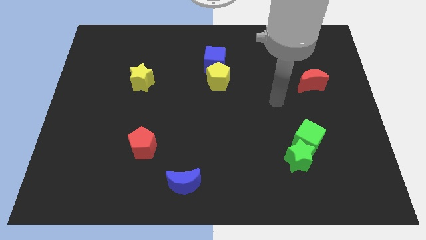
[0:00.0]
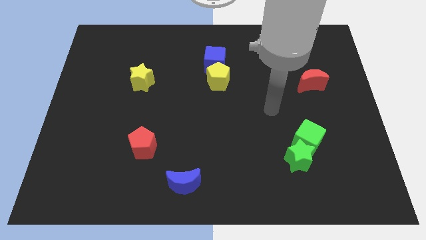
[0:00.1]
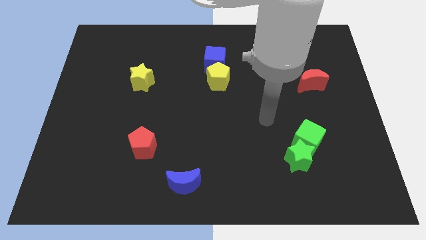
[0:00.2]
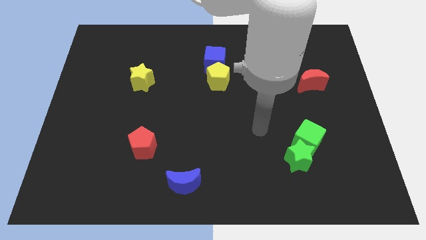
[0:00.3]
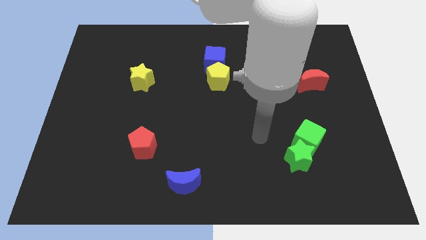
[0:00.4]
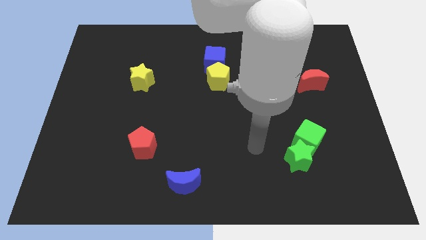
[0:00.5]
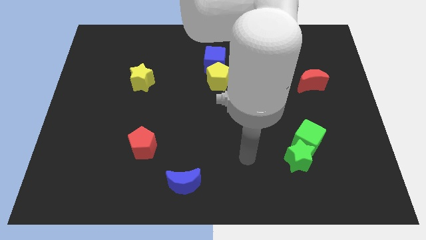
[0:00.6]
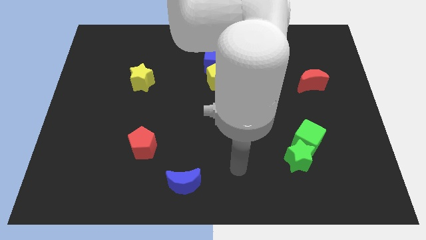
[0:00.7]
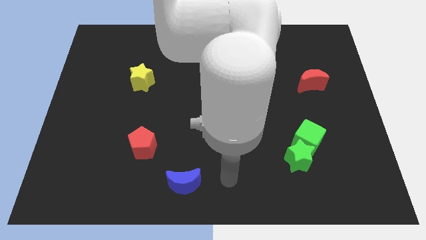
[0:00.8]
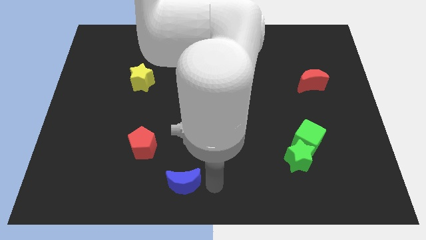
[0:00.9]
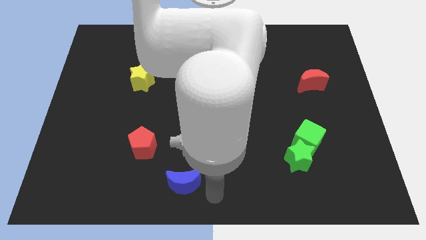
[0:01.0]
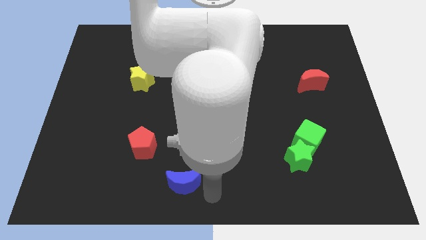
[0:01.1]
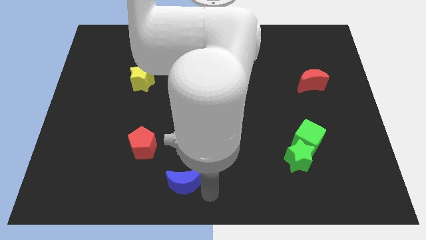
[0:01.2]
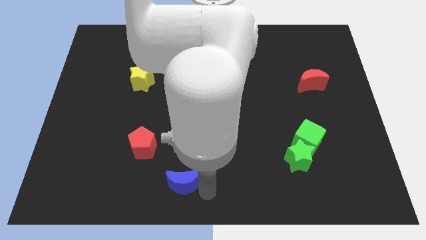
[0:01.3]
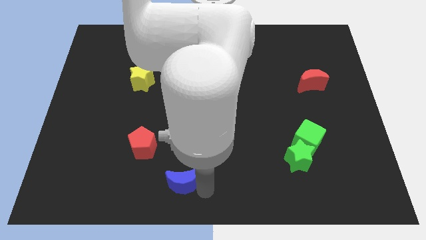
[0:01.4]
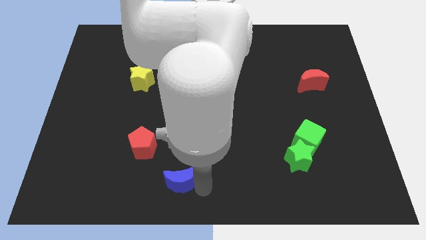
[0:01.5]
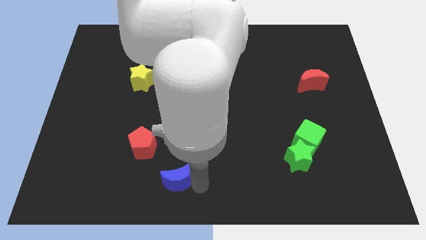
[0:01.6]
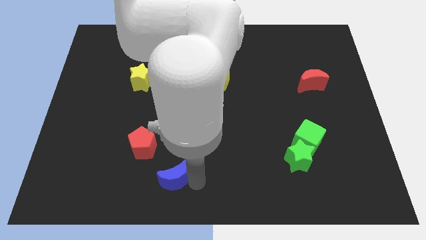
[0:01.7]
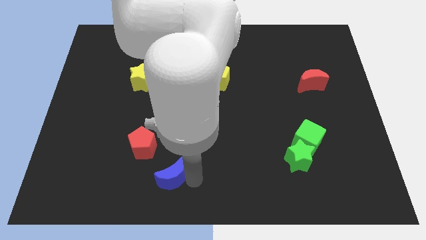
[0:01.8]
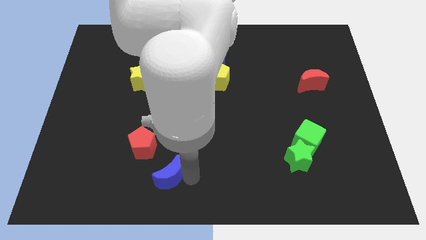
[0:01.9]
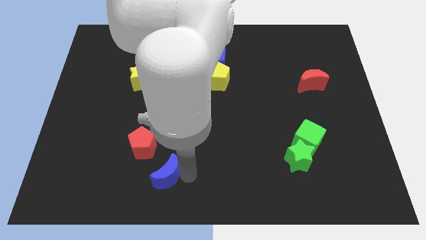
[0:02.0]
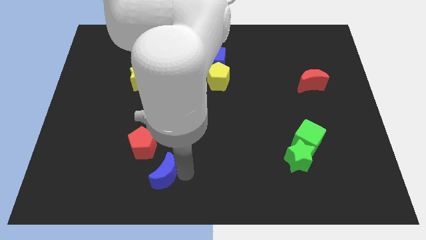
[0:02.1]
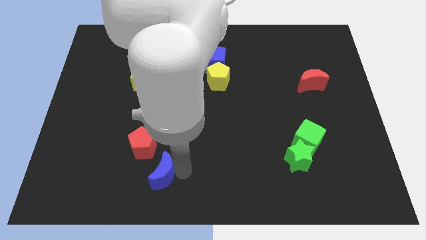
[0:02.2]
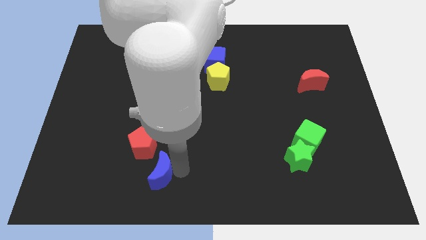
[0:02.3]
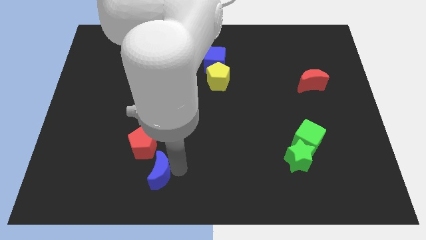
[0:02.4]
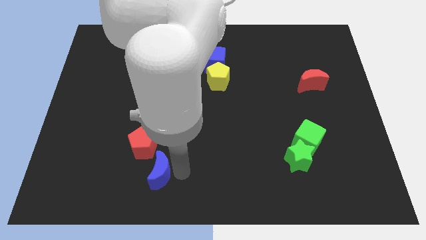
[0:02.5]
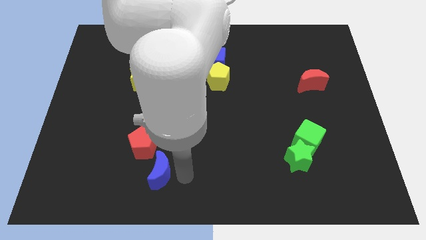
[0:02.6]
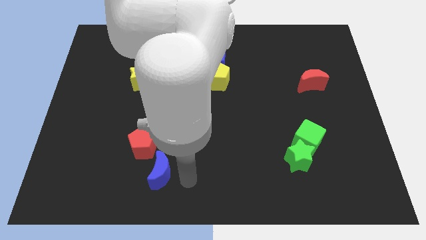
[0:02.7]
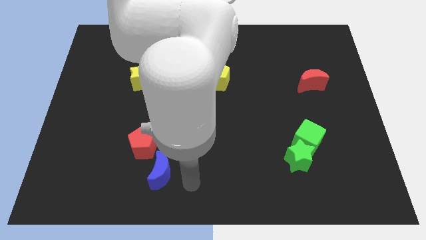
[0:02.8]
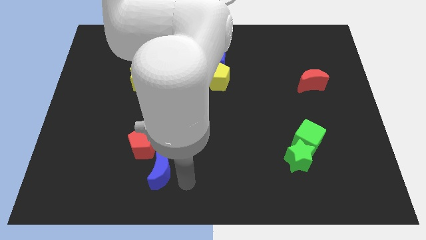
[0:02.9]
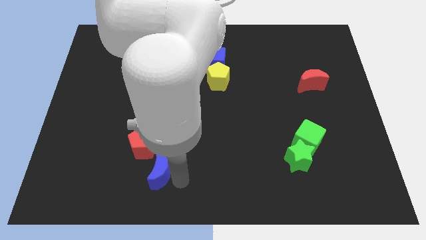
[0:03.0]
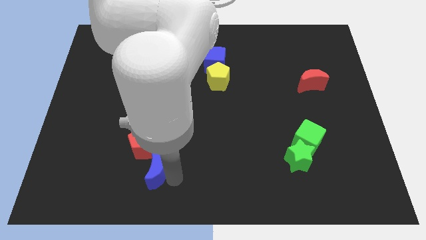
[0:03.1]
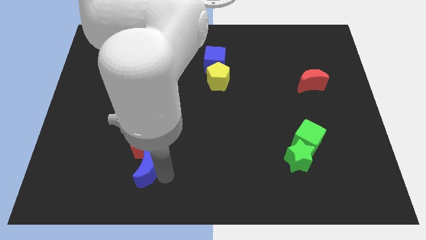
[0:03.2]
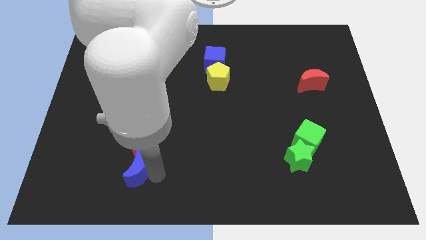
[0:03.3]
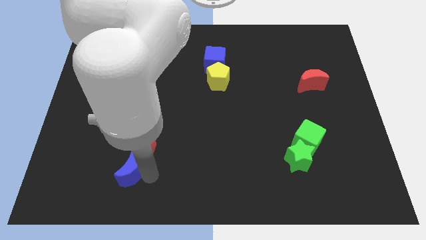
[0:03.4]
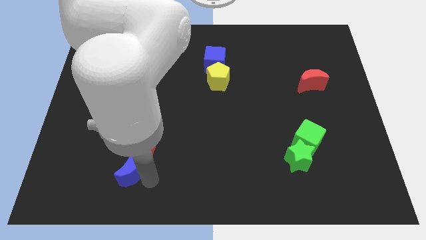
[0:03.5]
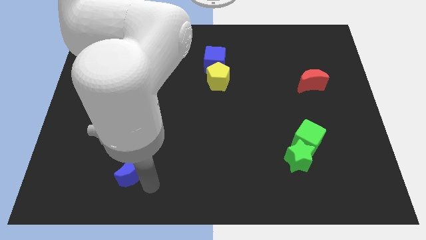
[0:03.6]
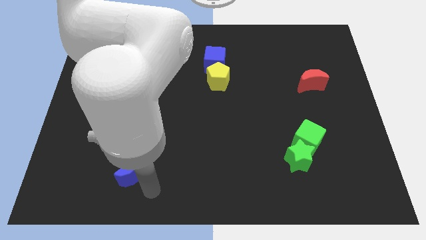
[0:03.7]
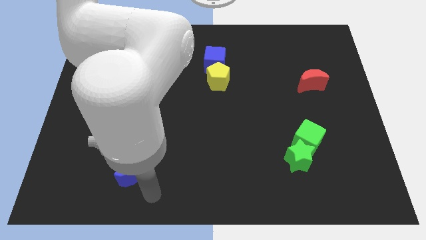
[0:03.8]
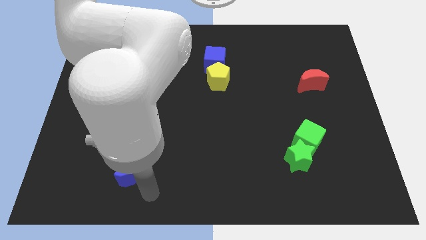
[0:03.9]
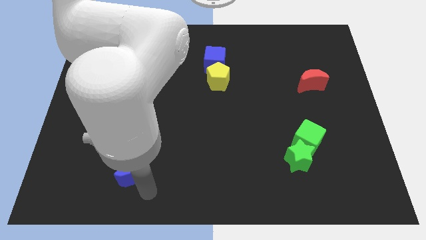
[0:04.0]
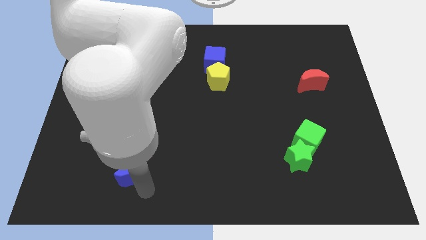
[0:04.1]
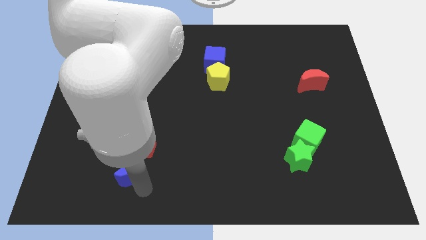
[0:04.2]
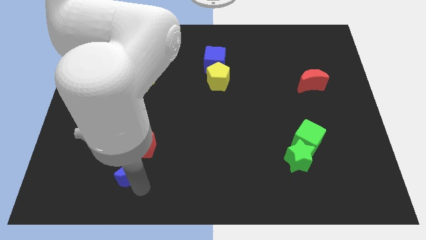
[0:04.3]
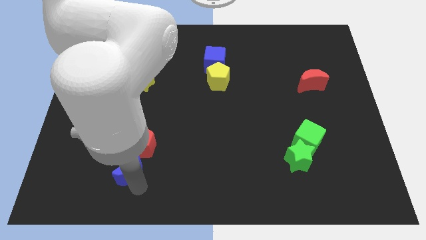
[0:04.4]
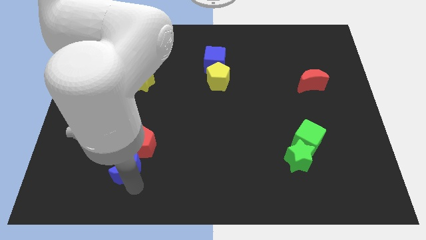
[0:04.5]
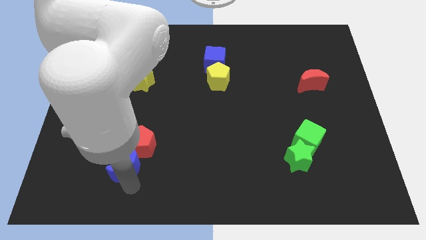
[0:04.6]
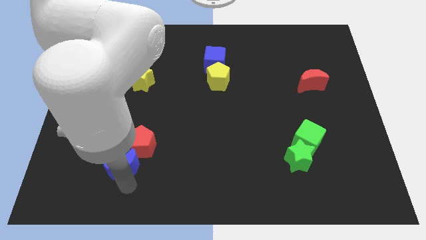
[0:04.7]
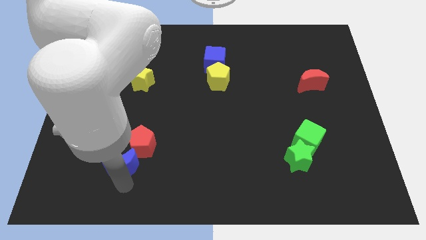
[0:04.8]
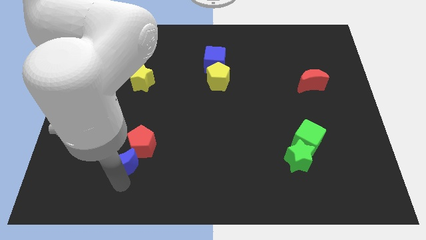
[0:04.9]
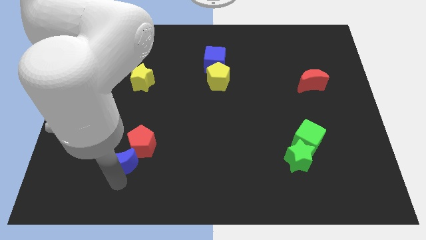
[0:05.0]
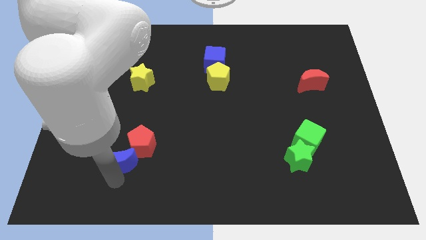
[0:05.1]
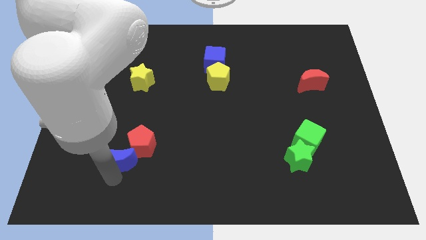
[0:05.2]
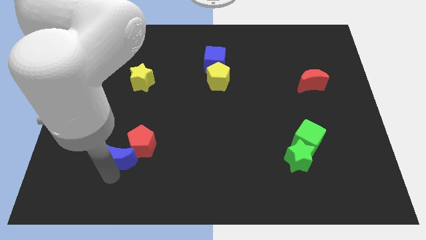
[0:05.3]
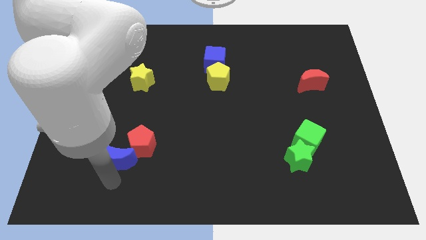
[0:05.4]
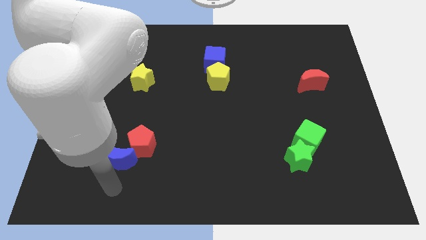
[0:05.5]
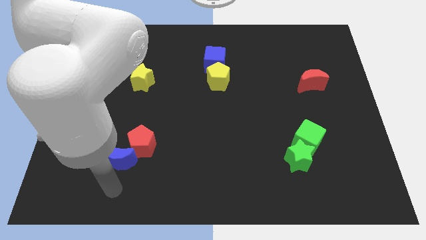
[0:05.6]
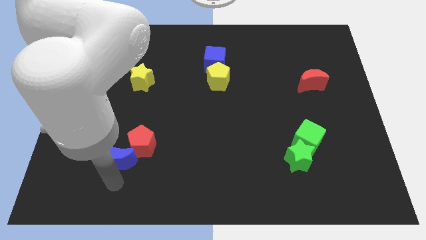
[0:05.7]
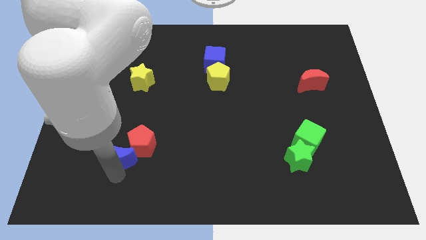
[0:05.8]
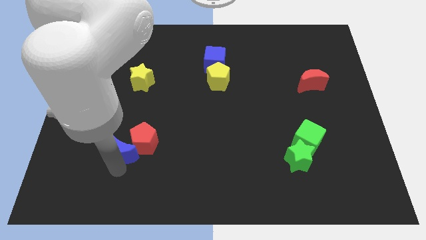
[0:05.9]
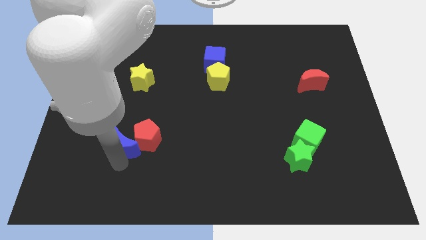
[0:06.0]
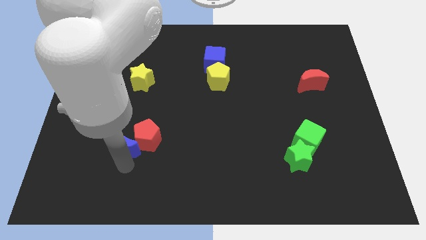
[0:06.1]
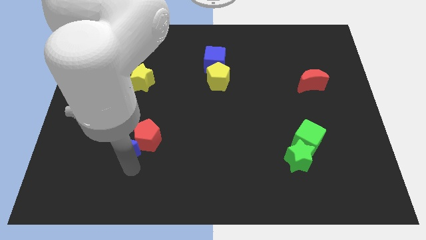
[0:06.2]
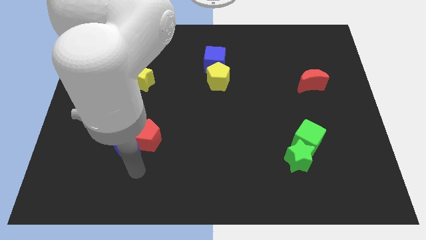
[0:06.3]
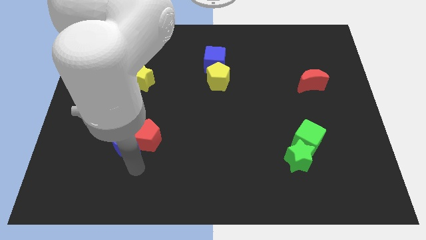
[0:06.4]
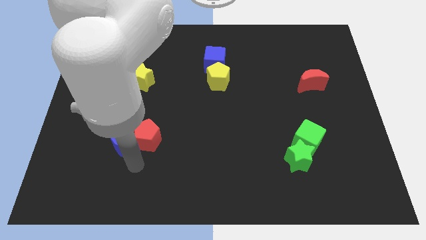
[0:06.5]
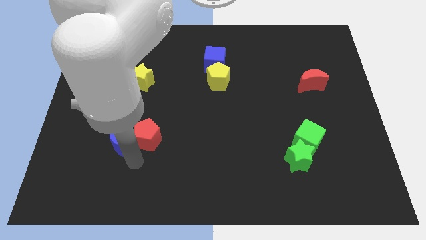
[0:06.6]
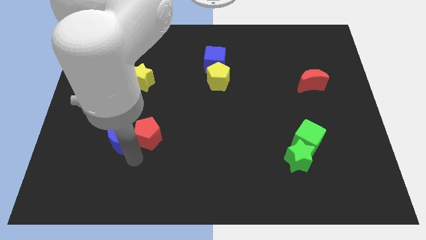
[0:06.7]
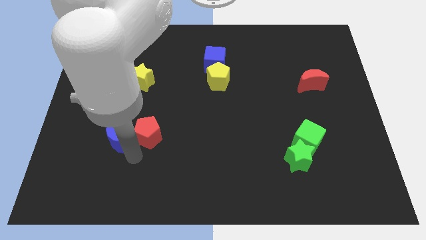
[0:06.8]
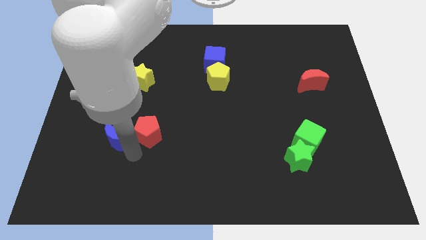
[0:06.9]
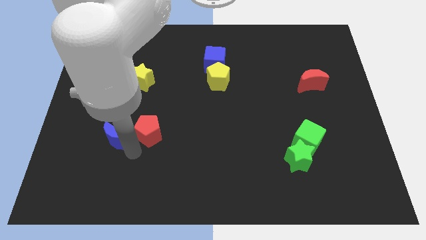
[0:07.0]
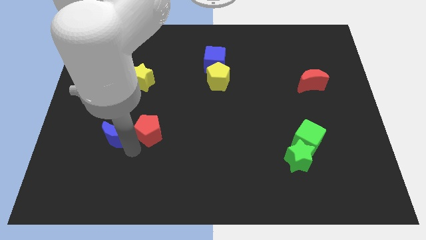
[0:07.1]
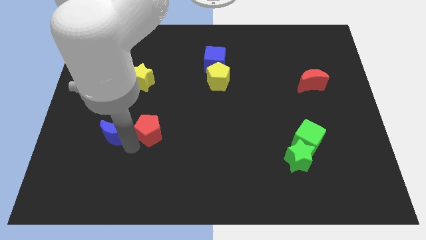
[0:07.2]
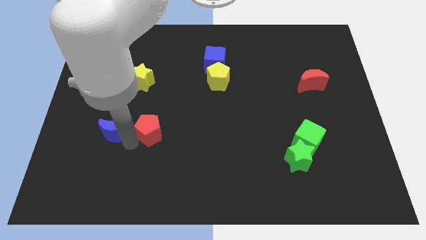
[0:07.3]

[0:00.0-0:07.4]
push the blue moon diagonally up and left

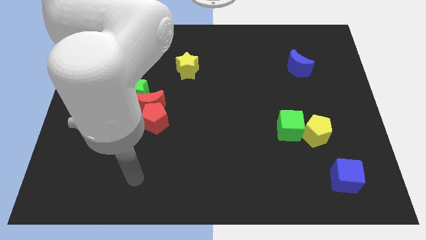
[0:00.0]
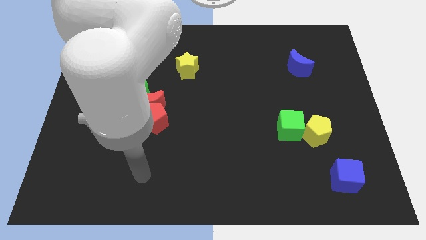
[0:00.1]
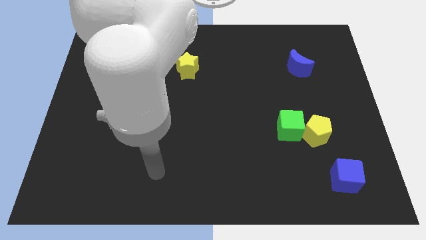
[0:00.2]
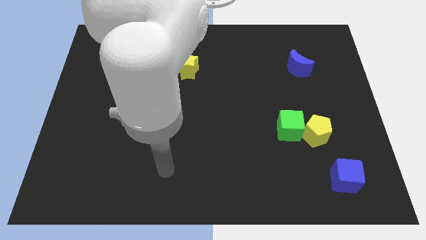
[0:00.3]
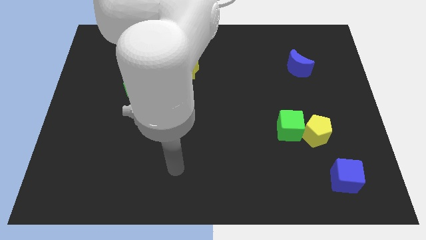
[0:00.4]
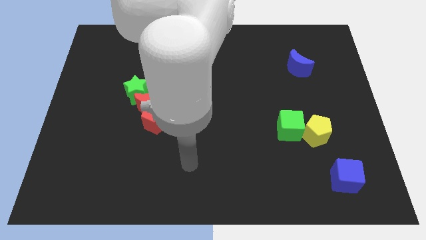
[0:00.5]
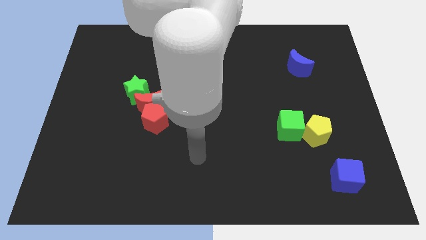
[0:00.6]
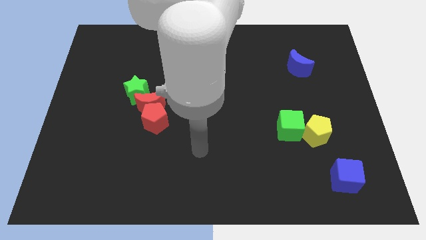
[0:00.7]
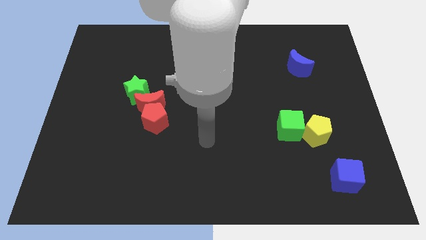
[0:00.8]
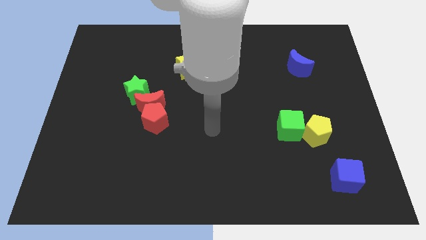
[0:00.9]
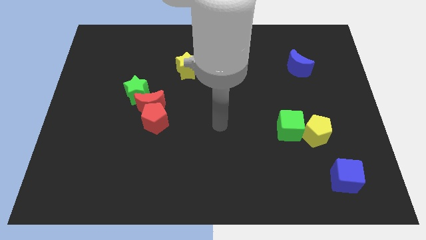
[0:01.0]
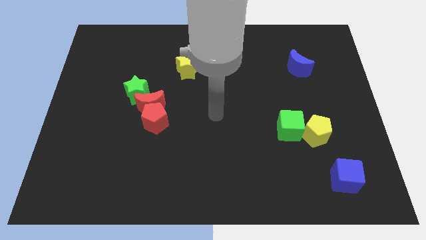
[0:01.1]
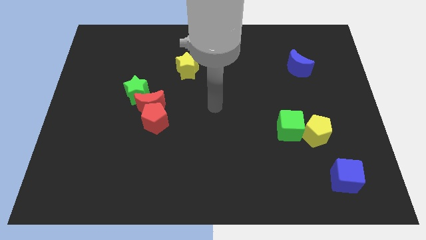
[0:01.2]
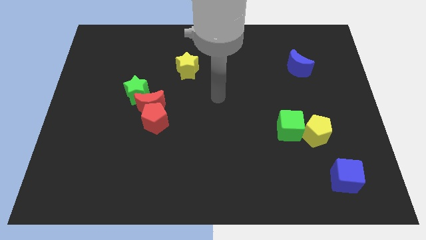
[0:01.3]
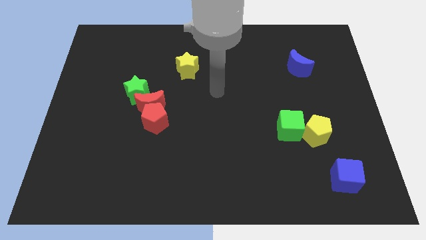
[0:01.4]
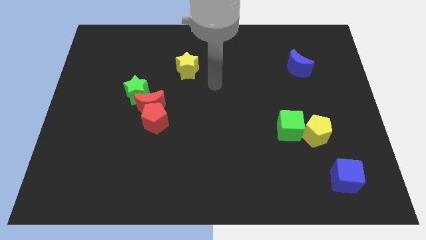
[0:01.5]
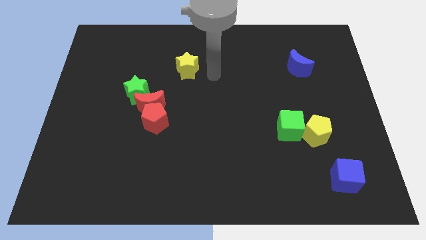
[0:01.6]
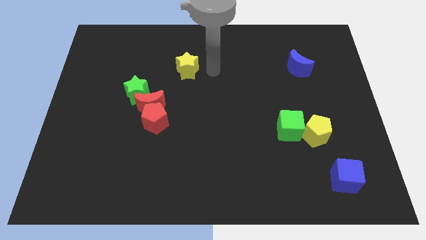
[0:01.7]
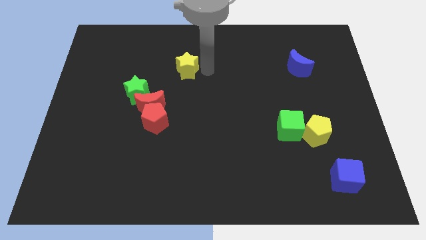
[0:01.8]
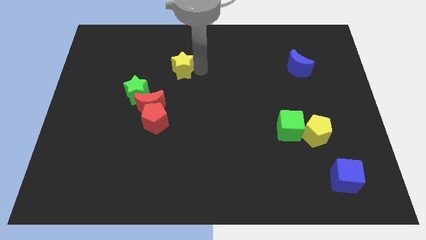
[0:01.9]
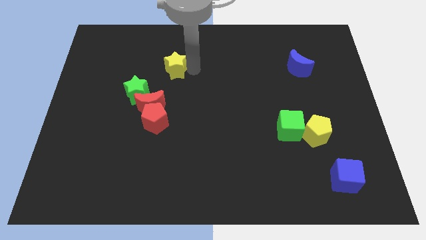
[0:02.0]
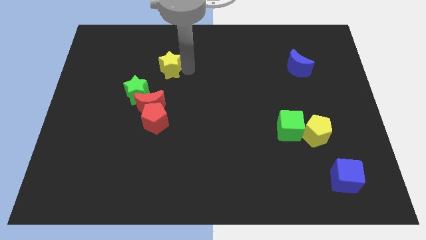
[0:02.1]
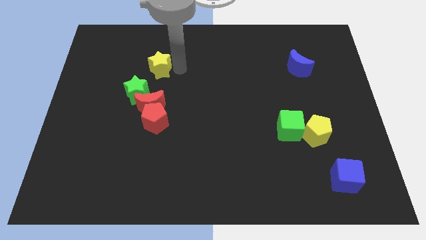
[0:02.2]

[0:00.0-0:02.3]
move the yellow star a bit to the left
